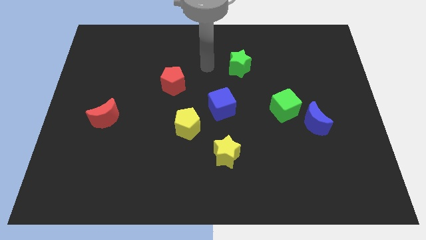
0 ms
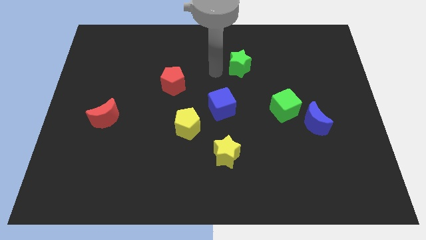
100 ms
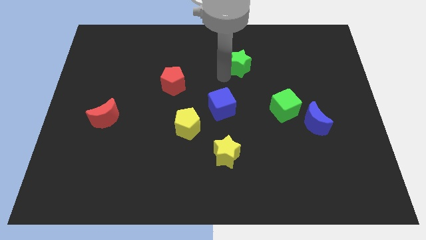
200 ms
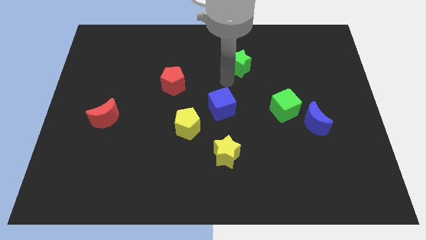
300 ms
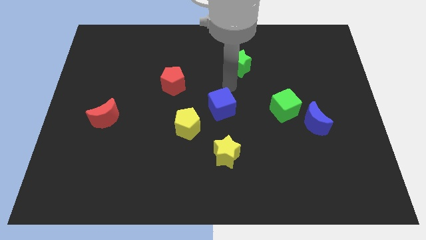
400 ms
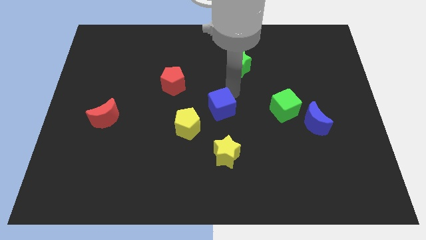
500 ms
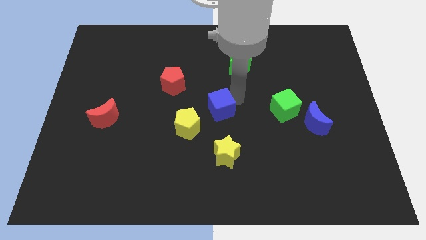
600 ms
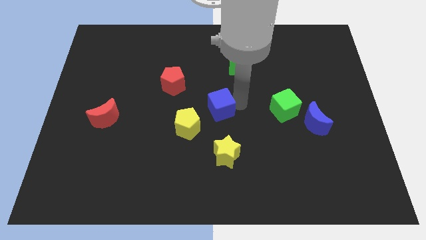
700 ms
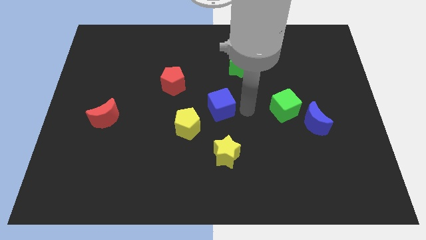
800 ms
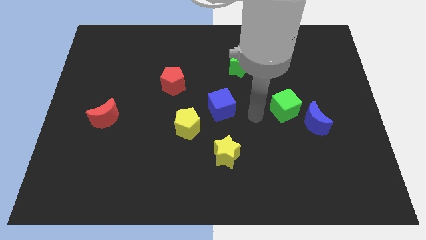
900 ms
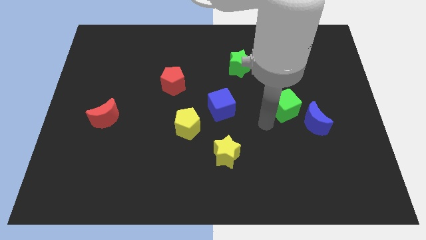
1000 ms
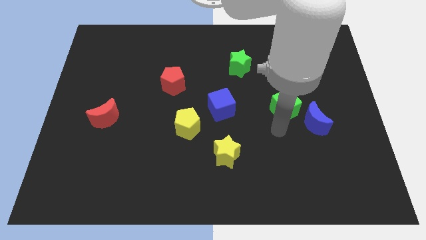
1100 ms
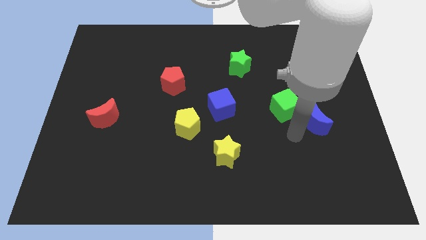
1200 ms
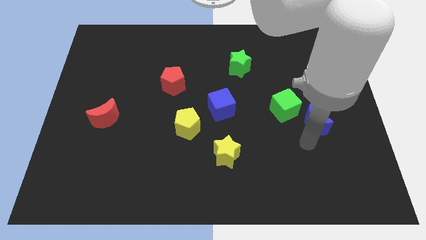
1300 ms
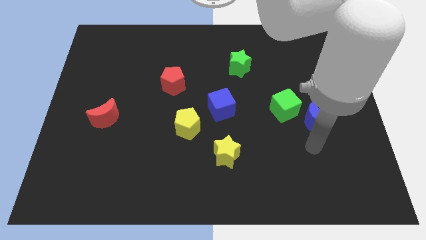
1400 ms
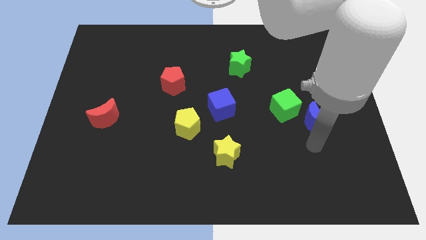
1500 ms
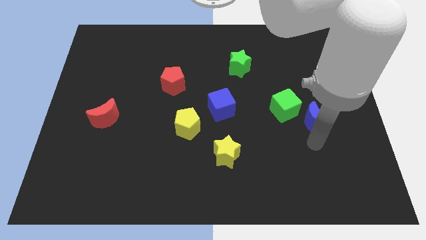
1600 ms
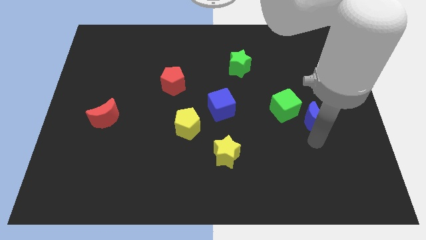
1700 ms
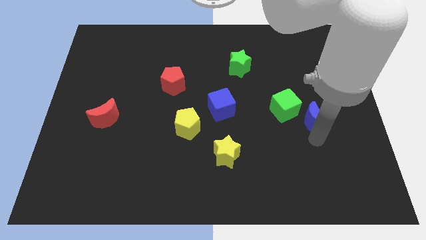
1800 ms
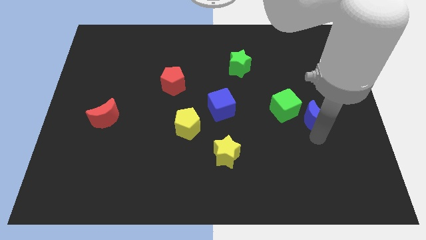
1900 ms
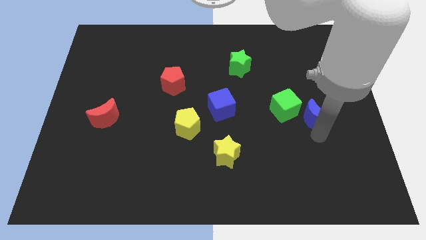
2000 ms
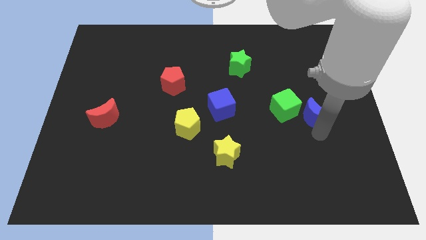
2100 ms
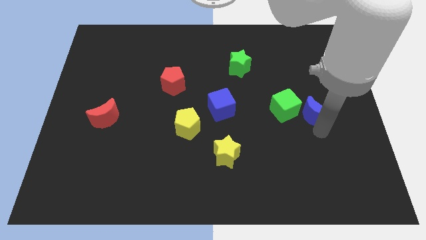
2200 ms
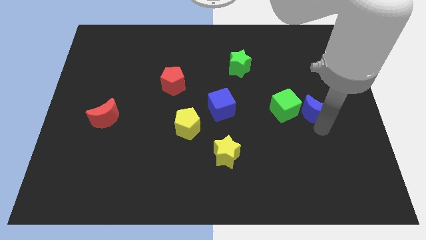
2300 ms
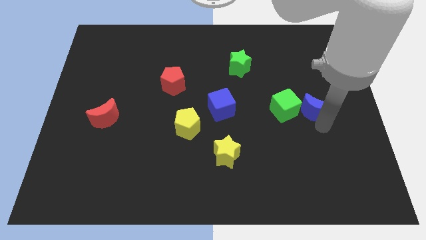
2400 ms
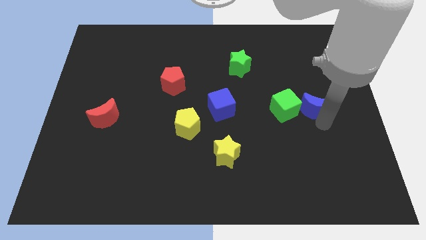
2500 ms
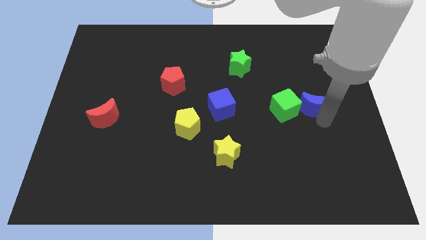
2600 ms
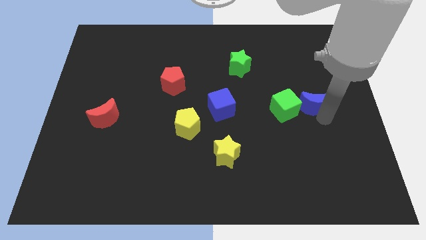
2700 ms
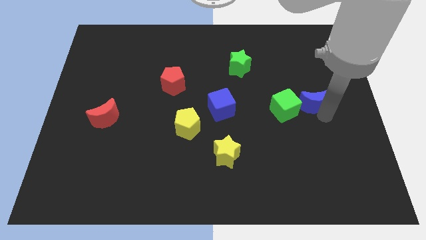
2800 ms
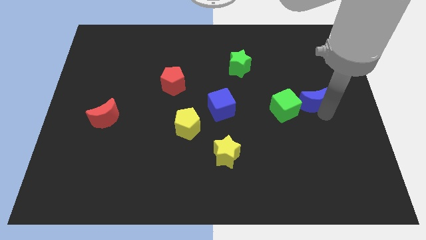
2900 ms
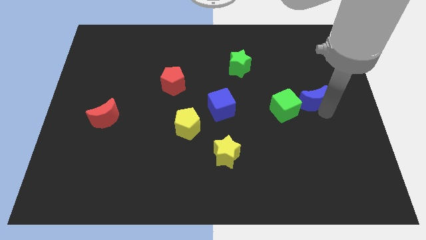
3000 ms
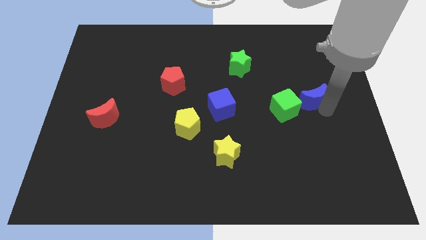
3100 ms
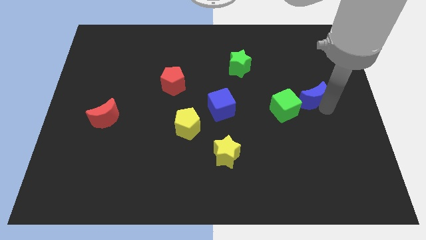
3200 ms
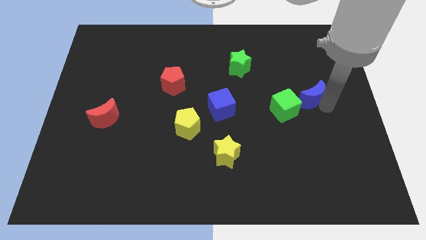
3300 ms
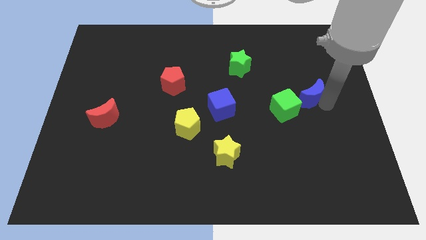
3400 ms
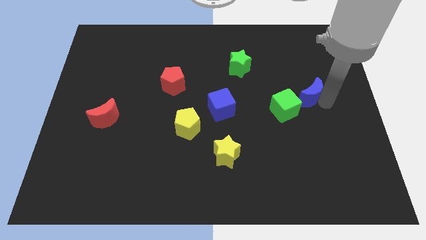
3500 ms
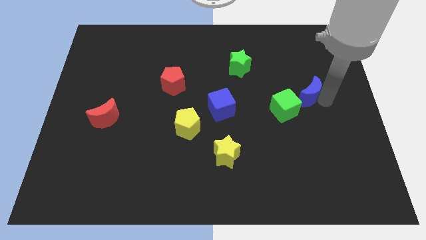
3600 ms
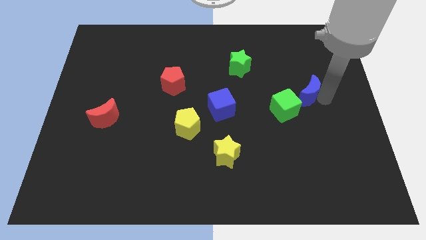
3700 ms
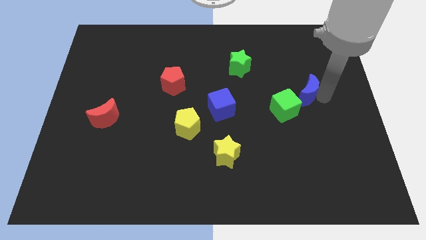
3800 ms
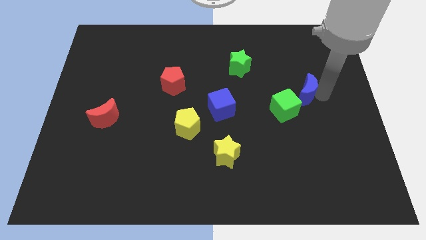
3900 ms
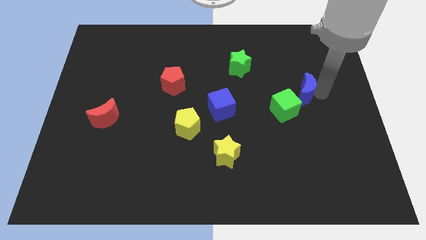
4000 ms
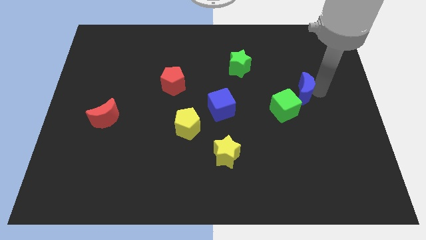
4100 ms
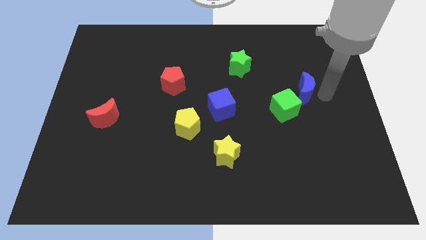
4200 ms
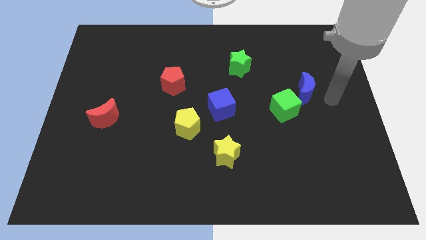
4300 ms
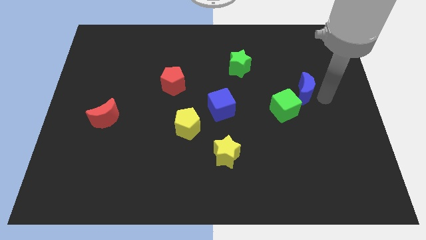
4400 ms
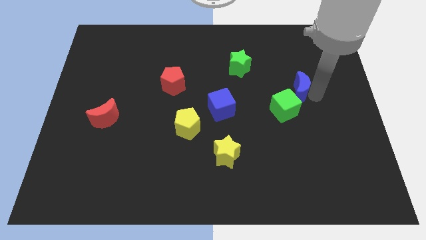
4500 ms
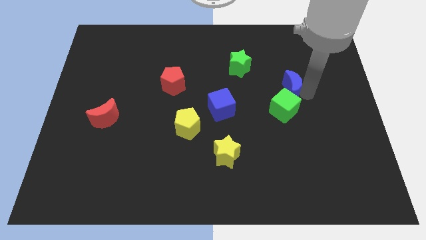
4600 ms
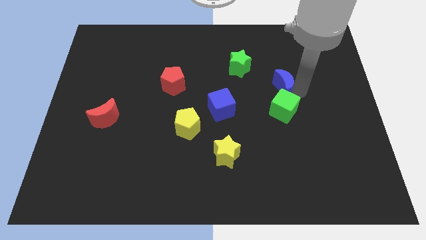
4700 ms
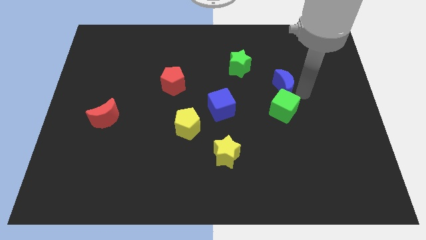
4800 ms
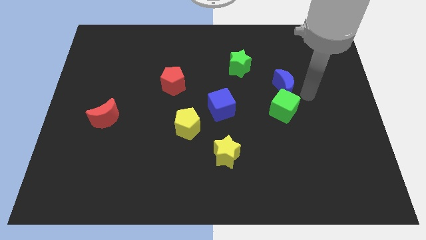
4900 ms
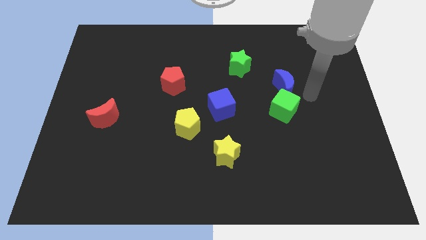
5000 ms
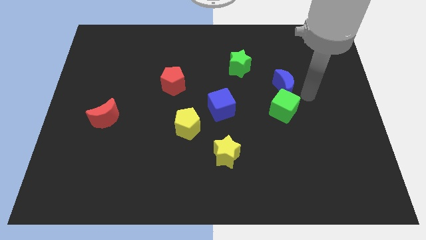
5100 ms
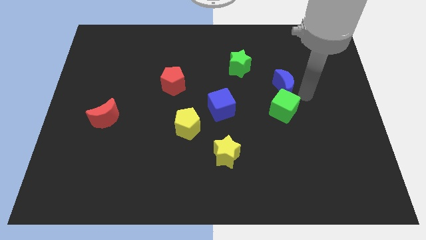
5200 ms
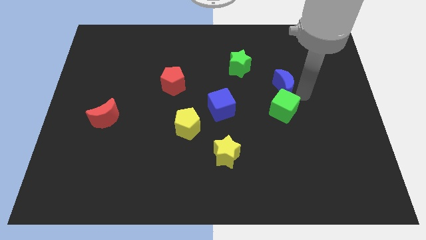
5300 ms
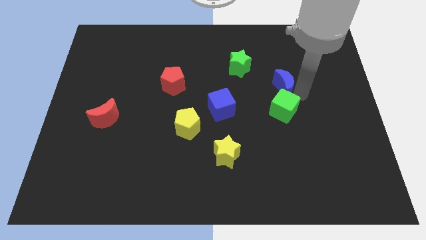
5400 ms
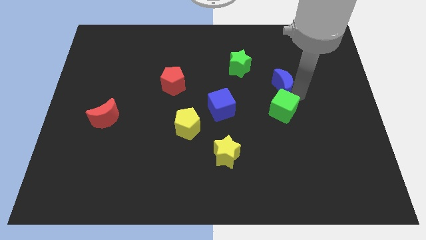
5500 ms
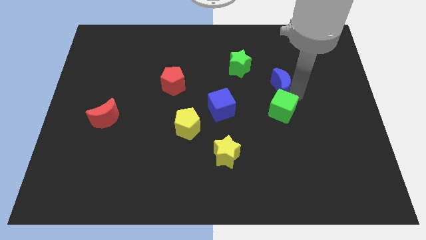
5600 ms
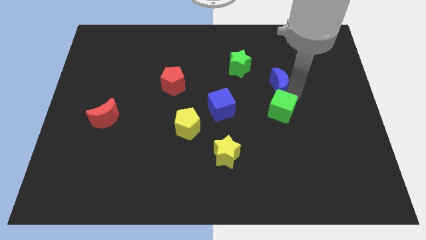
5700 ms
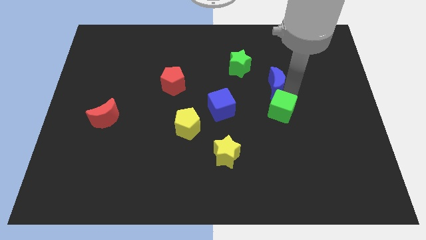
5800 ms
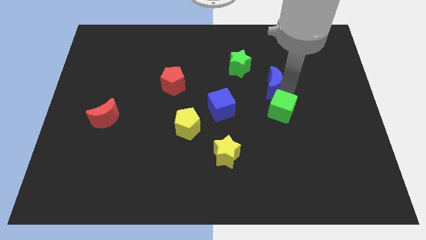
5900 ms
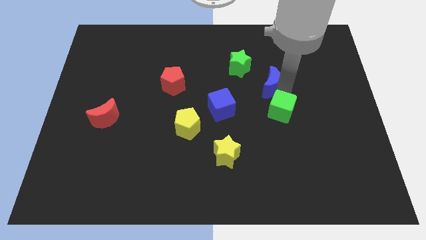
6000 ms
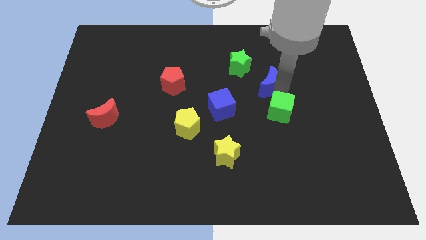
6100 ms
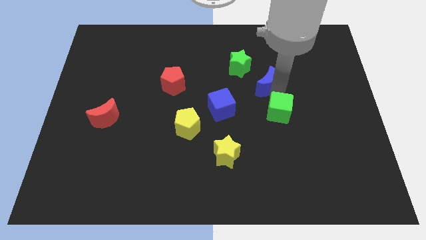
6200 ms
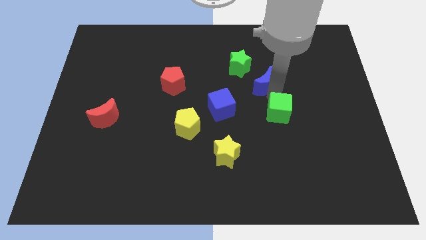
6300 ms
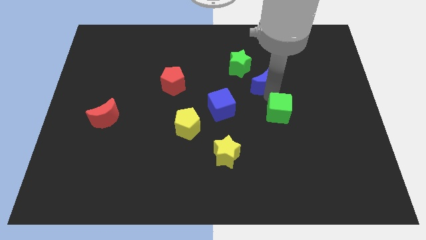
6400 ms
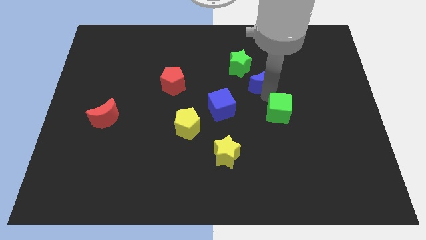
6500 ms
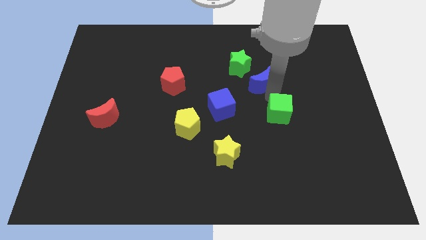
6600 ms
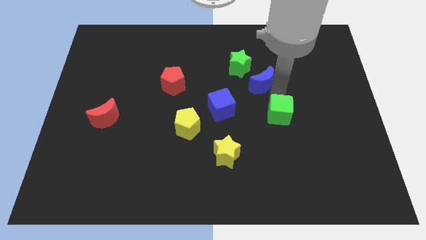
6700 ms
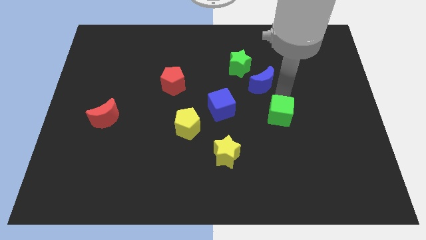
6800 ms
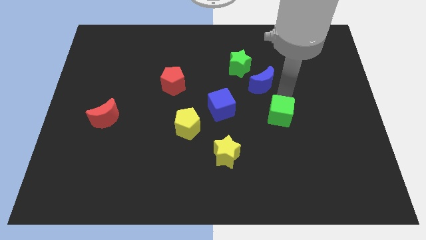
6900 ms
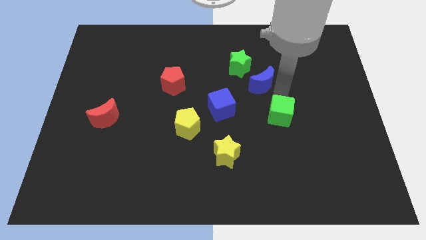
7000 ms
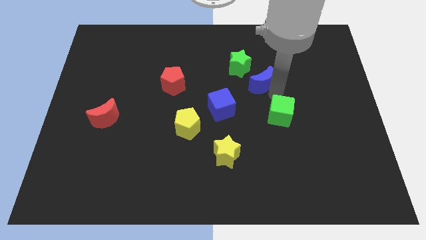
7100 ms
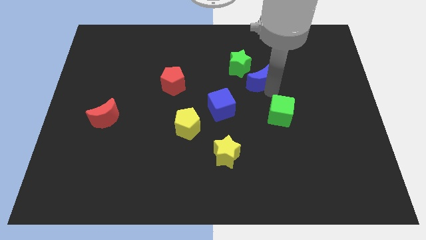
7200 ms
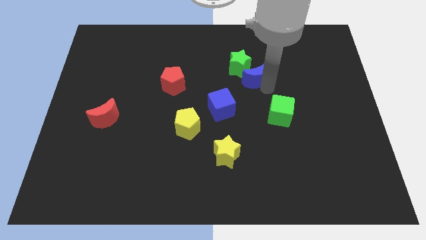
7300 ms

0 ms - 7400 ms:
put the blue moon next to the green star
